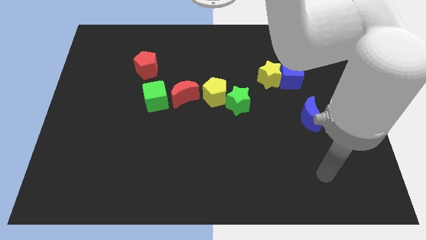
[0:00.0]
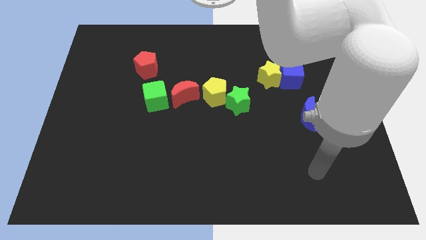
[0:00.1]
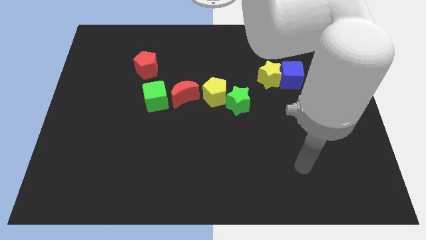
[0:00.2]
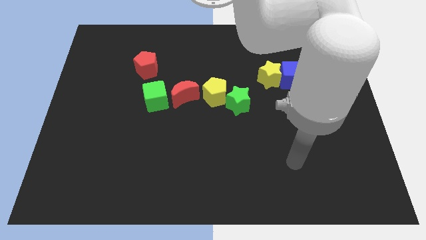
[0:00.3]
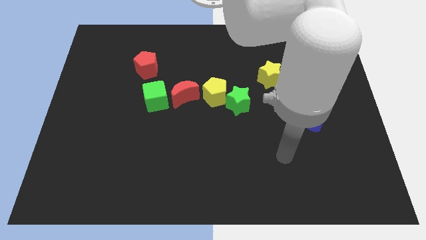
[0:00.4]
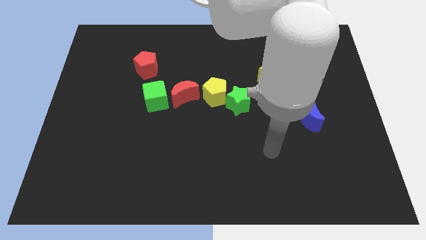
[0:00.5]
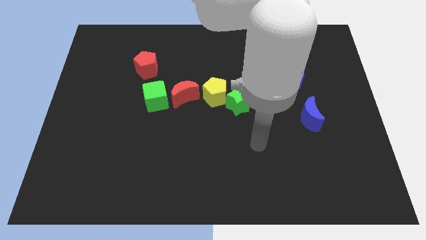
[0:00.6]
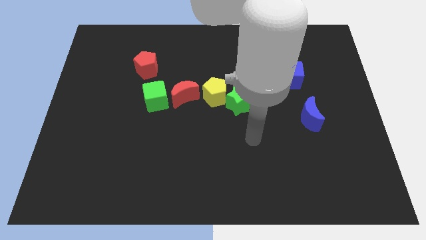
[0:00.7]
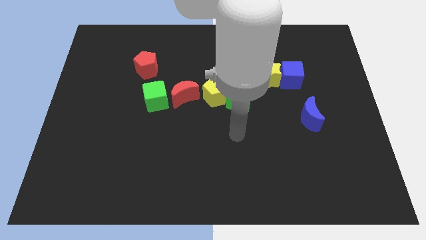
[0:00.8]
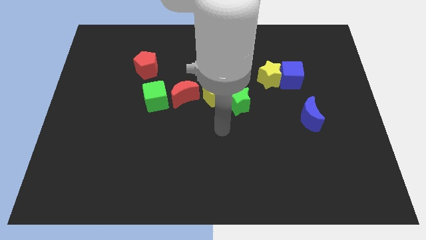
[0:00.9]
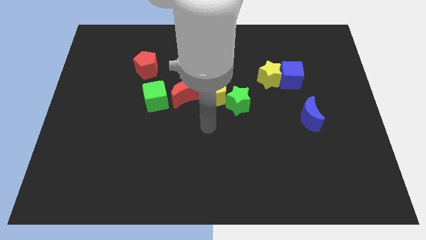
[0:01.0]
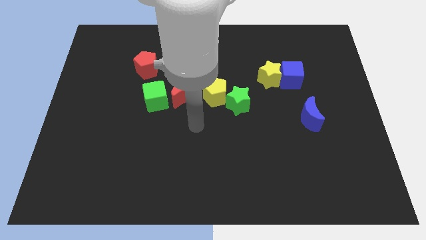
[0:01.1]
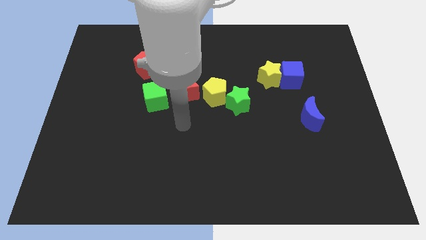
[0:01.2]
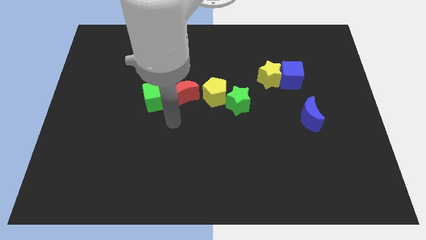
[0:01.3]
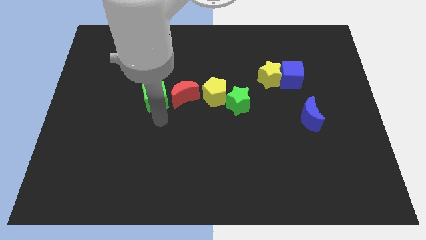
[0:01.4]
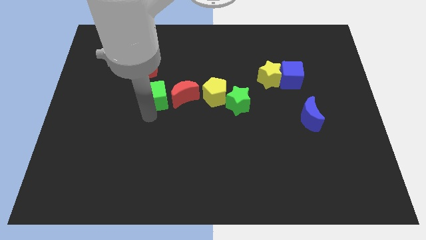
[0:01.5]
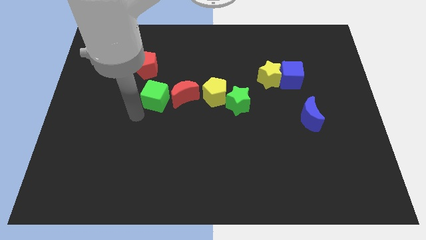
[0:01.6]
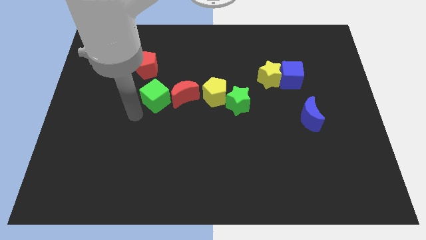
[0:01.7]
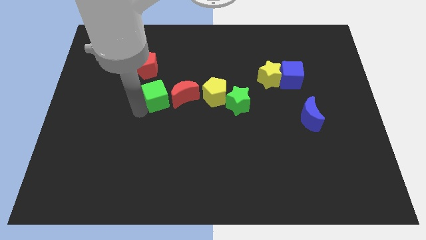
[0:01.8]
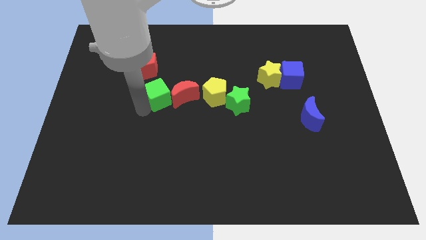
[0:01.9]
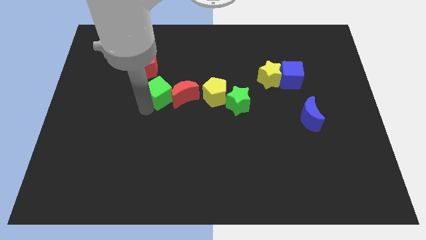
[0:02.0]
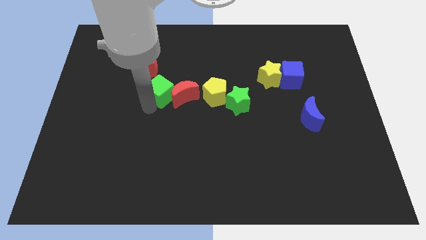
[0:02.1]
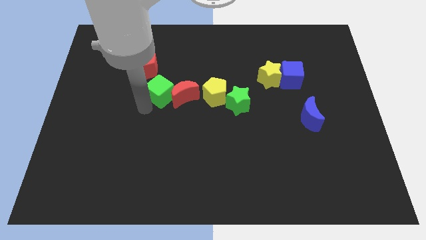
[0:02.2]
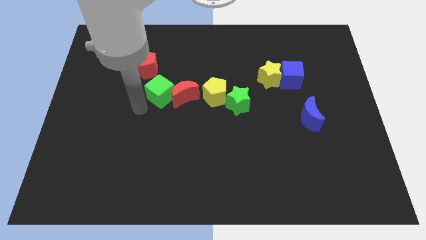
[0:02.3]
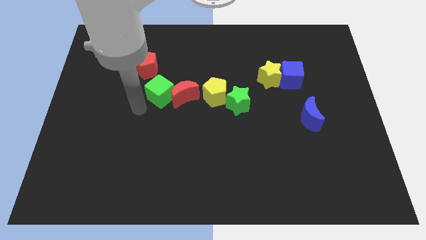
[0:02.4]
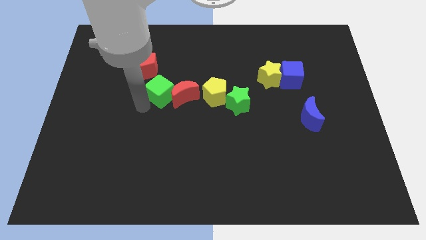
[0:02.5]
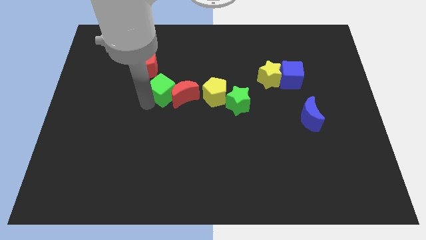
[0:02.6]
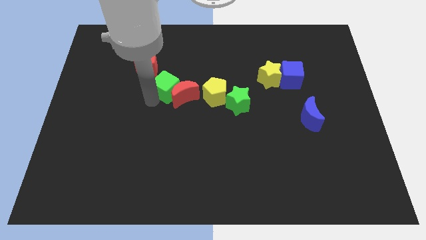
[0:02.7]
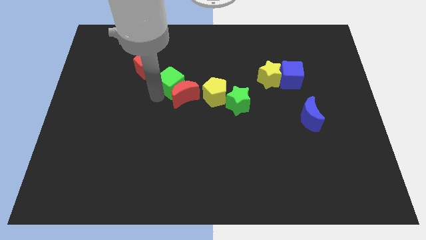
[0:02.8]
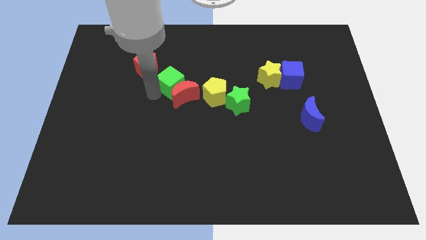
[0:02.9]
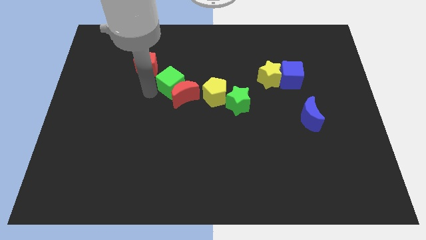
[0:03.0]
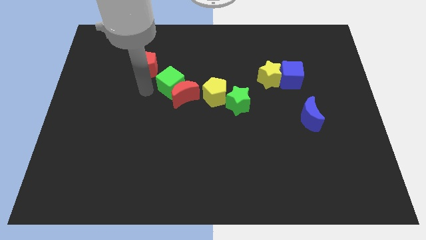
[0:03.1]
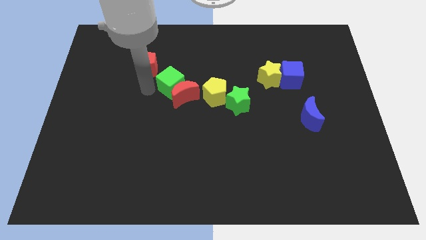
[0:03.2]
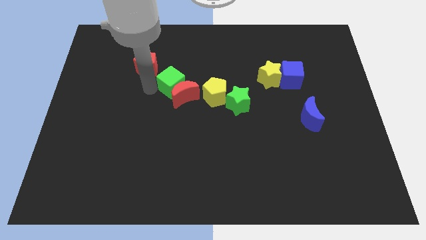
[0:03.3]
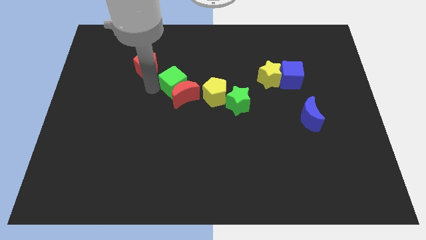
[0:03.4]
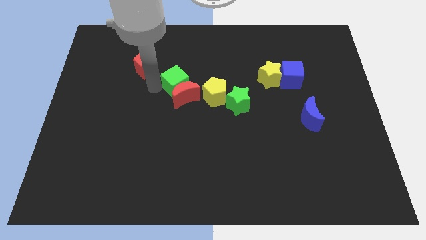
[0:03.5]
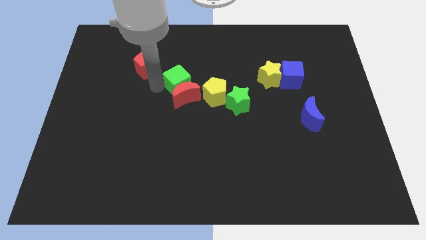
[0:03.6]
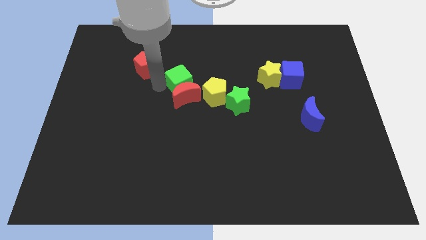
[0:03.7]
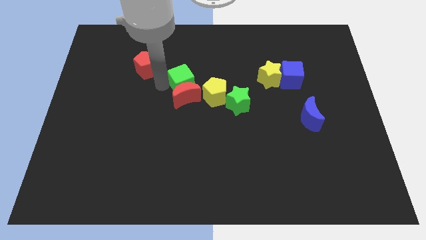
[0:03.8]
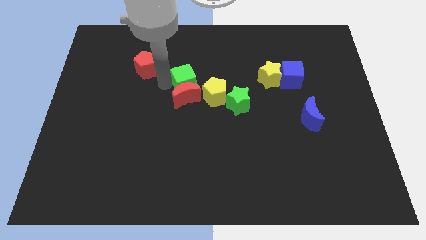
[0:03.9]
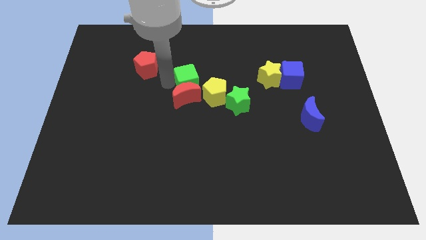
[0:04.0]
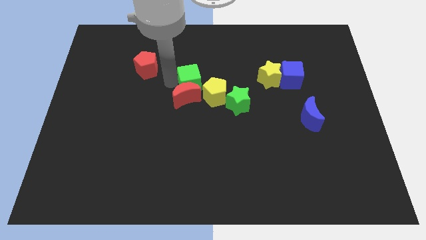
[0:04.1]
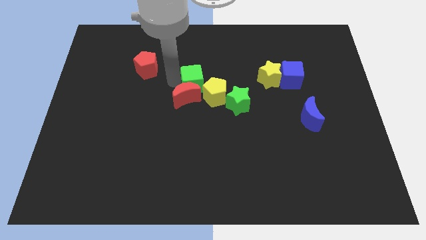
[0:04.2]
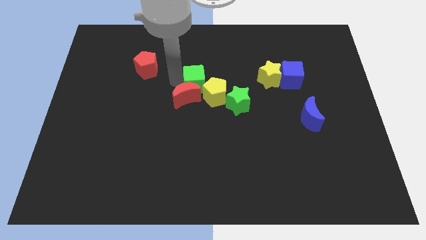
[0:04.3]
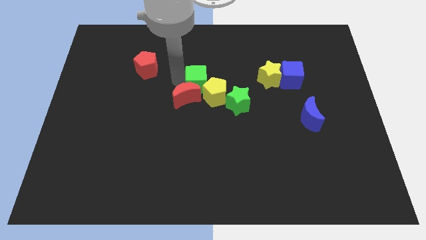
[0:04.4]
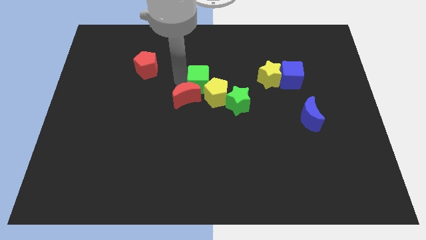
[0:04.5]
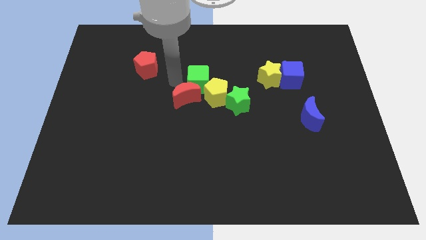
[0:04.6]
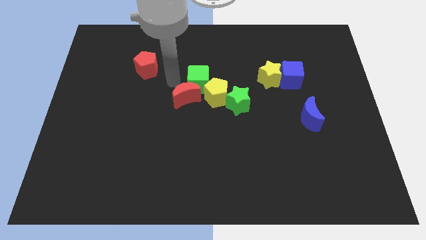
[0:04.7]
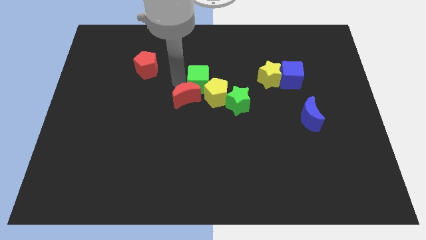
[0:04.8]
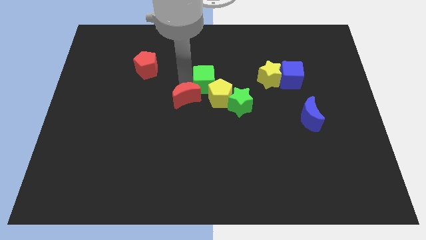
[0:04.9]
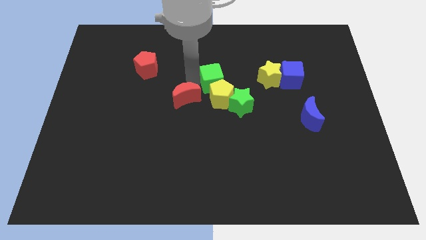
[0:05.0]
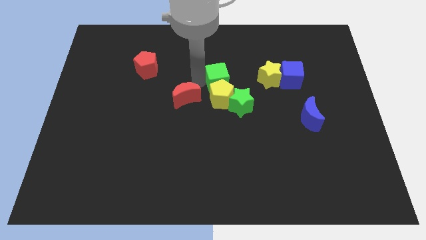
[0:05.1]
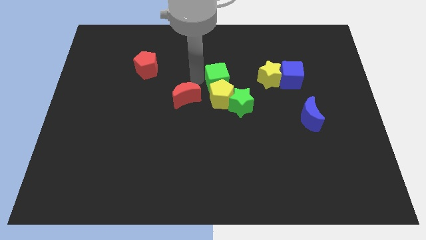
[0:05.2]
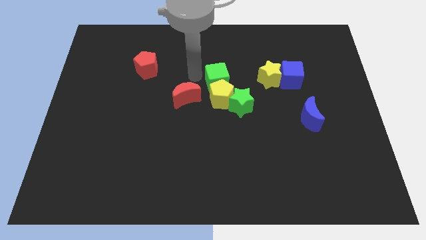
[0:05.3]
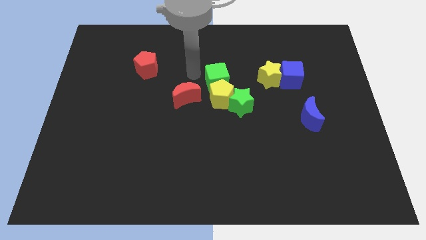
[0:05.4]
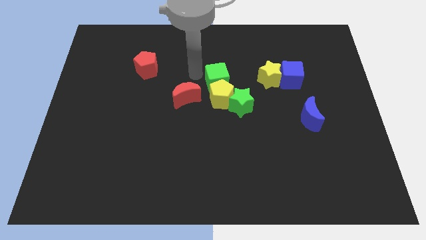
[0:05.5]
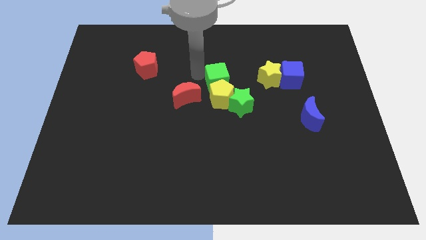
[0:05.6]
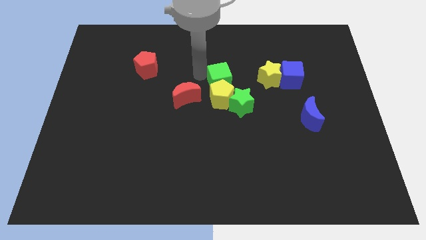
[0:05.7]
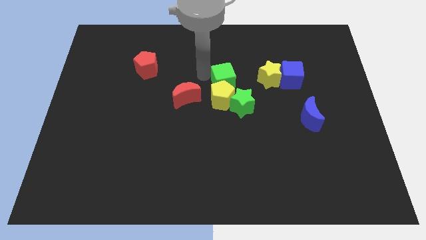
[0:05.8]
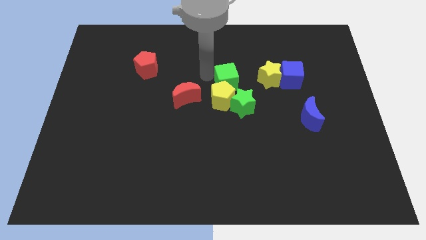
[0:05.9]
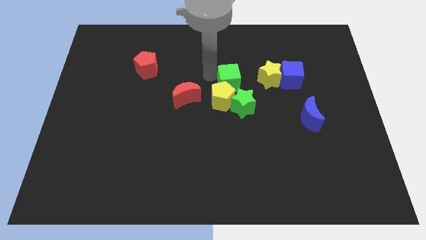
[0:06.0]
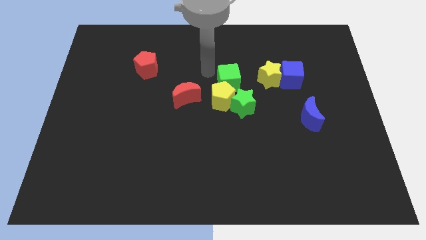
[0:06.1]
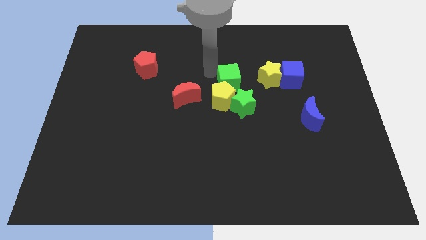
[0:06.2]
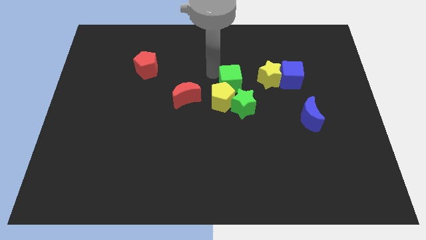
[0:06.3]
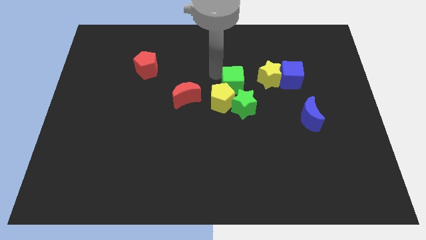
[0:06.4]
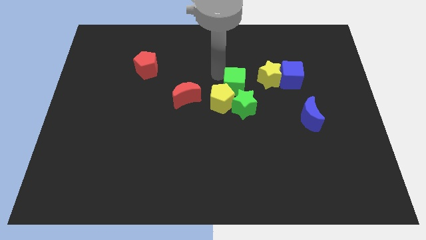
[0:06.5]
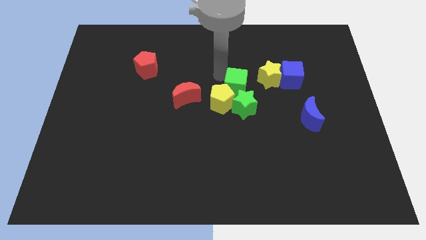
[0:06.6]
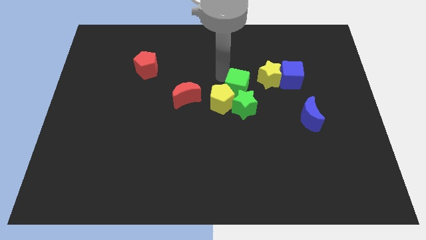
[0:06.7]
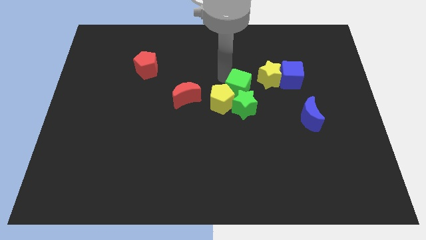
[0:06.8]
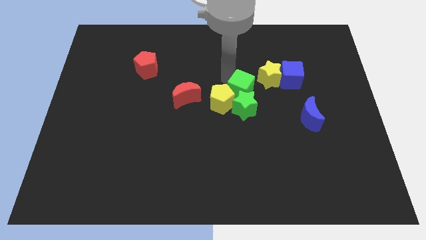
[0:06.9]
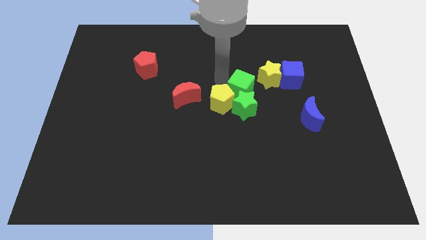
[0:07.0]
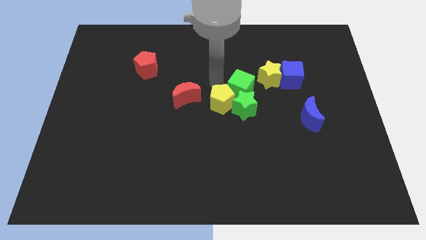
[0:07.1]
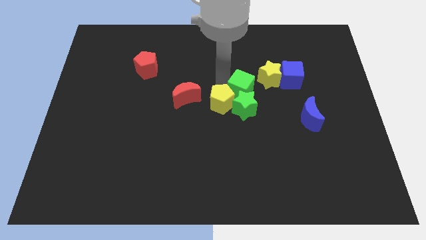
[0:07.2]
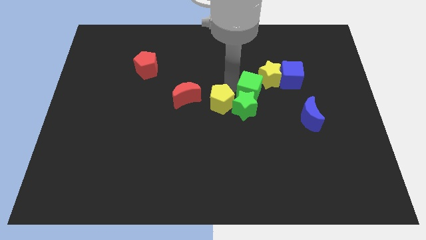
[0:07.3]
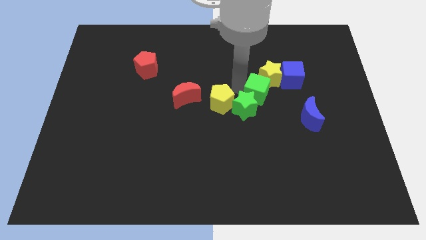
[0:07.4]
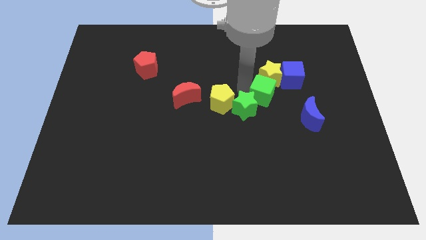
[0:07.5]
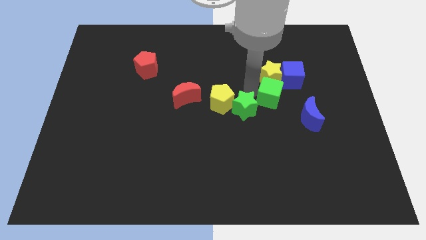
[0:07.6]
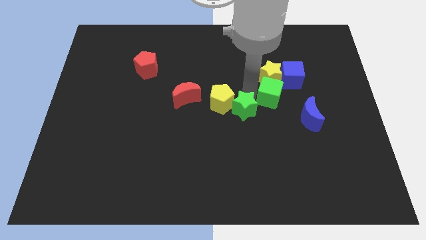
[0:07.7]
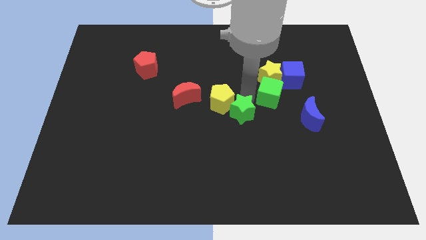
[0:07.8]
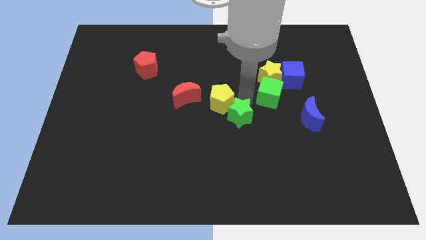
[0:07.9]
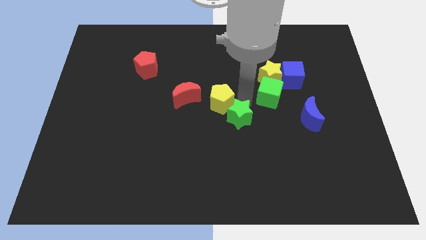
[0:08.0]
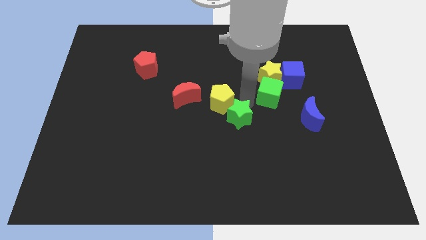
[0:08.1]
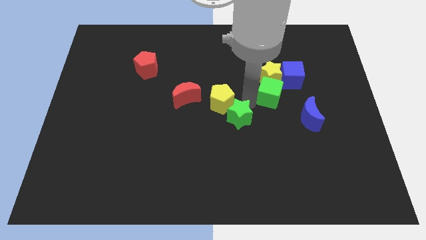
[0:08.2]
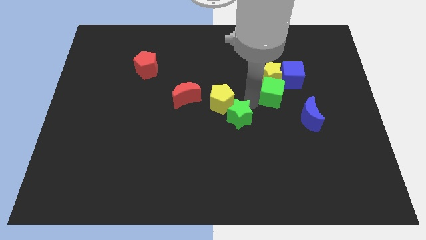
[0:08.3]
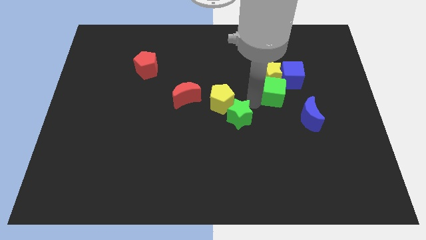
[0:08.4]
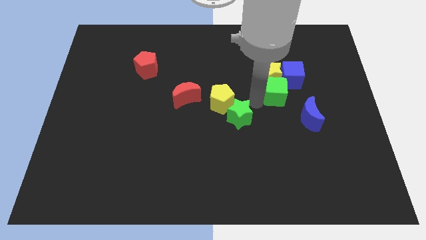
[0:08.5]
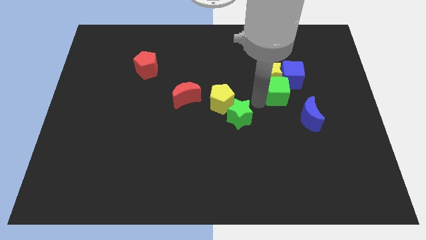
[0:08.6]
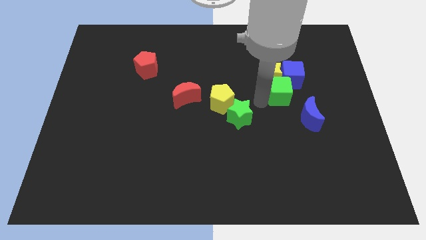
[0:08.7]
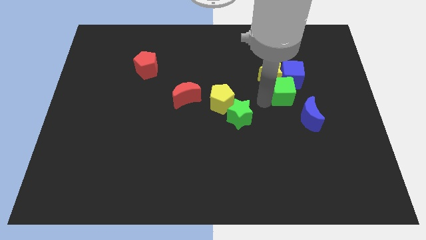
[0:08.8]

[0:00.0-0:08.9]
move the green cube towards the blue cube
